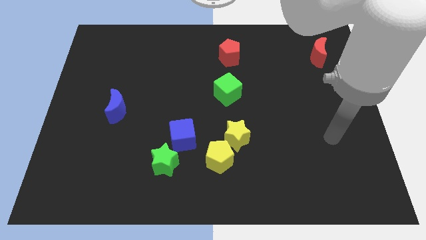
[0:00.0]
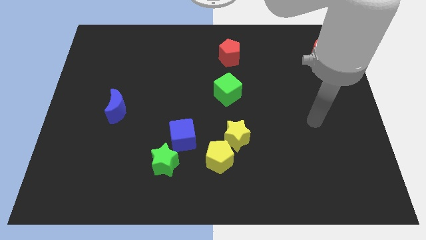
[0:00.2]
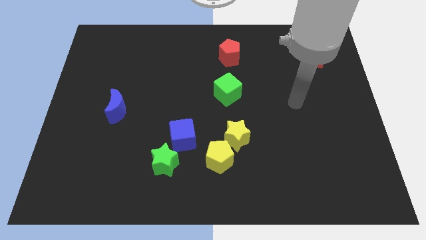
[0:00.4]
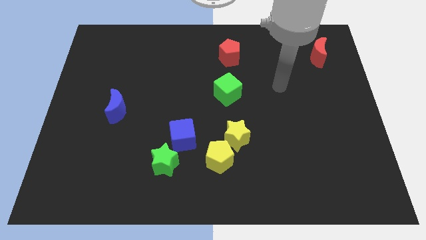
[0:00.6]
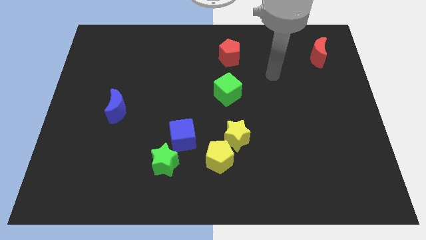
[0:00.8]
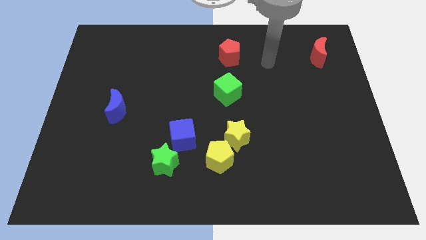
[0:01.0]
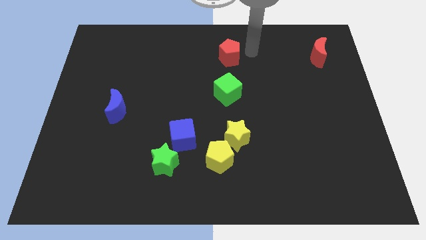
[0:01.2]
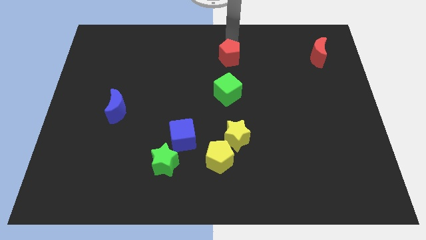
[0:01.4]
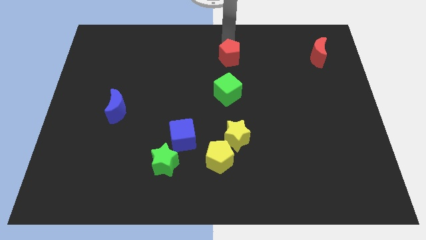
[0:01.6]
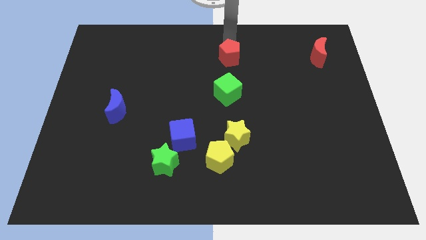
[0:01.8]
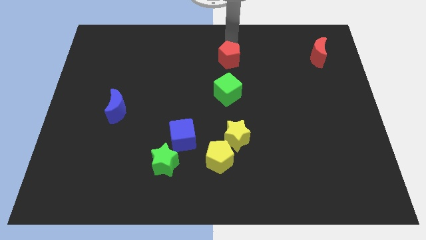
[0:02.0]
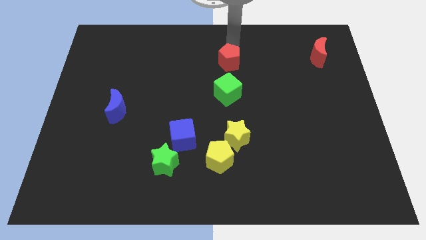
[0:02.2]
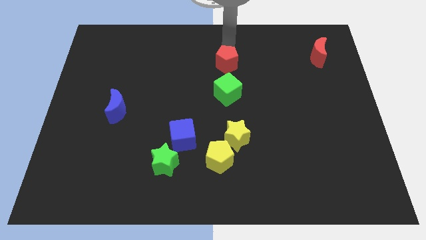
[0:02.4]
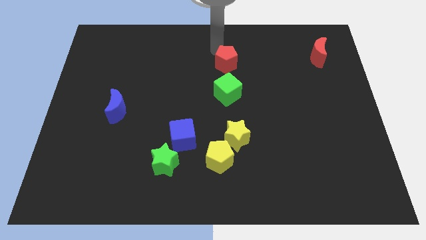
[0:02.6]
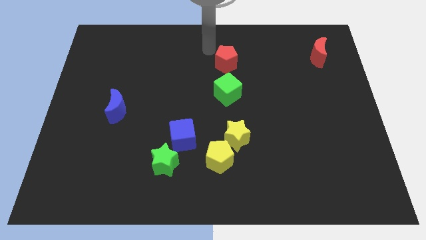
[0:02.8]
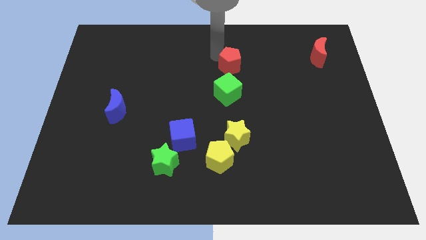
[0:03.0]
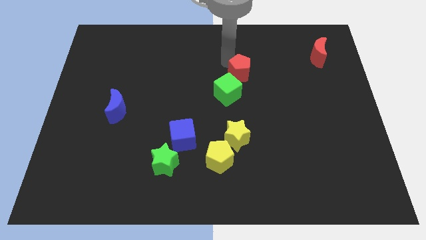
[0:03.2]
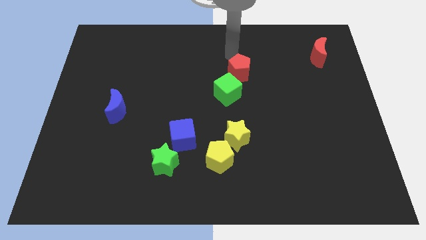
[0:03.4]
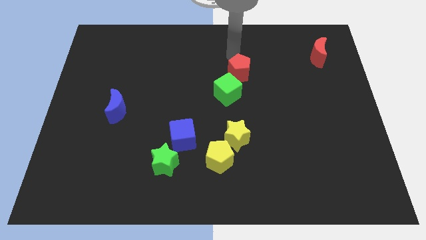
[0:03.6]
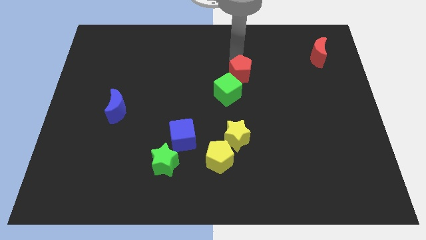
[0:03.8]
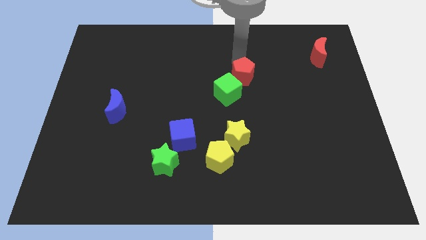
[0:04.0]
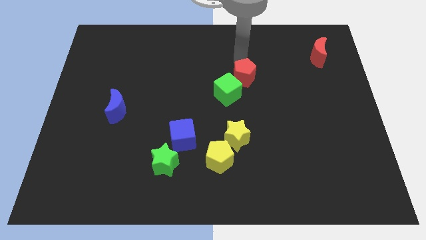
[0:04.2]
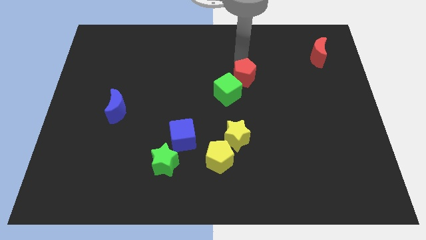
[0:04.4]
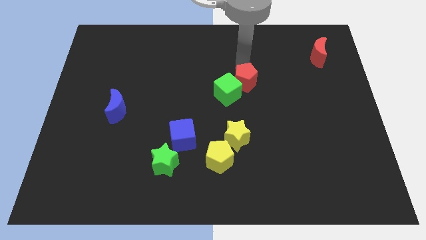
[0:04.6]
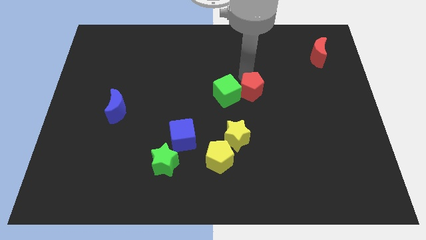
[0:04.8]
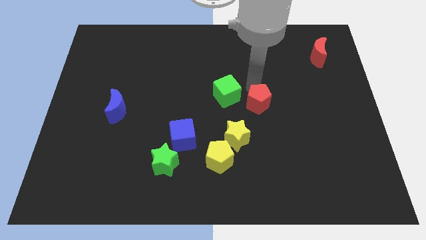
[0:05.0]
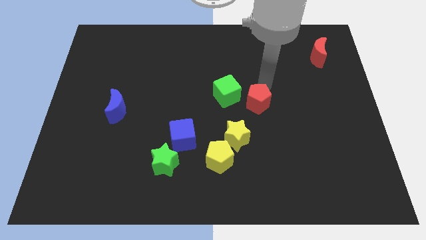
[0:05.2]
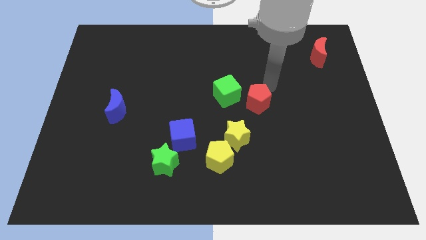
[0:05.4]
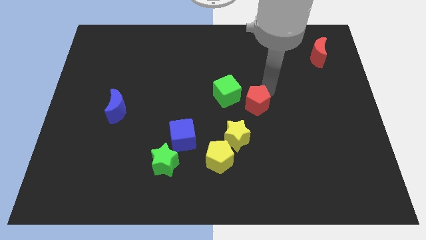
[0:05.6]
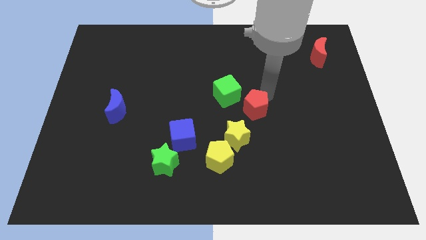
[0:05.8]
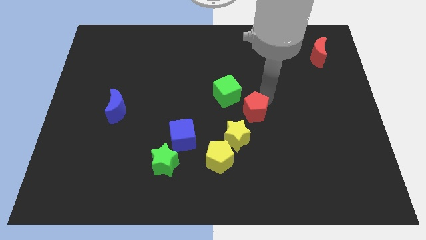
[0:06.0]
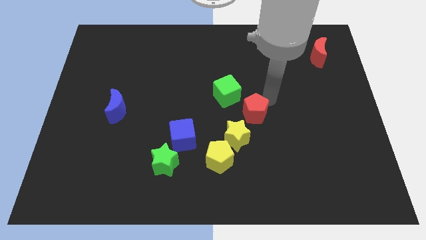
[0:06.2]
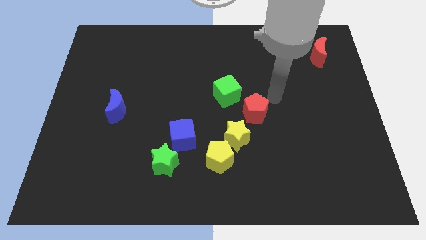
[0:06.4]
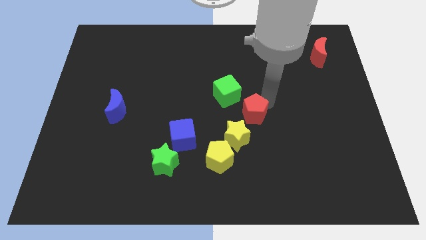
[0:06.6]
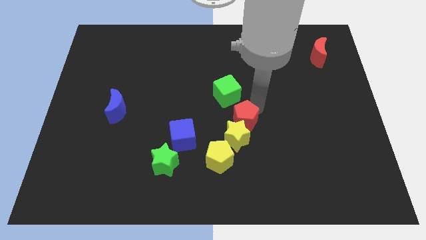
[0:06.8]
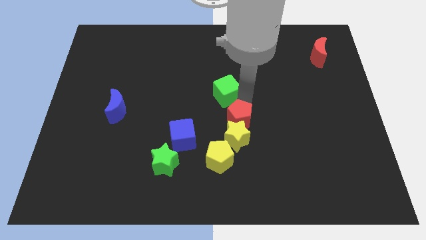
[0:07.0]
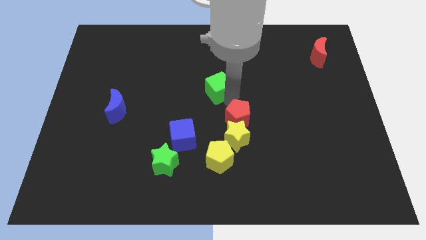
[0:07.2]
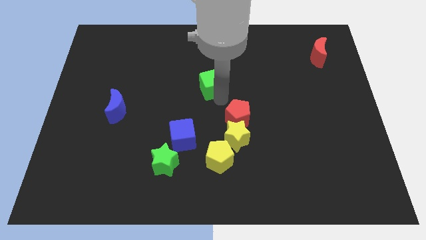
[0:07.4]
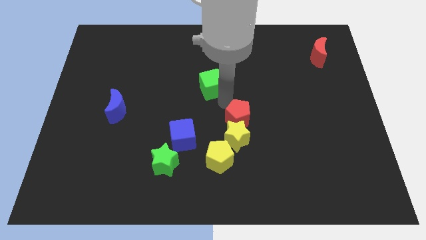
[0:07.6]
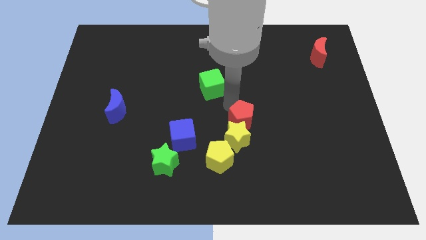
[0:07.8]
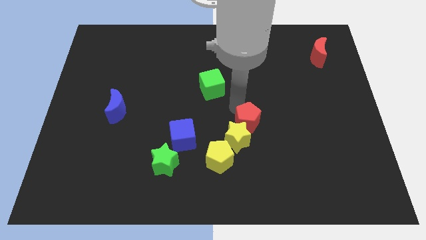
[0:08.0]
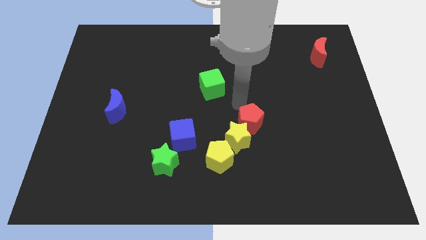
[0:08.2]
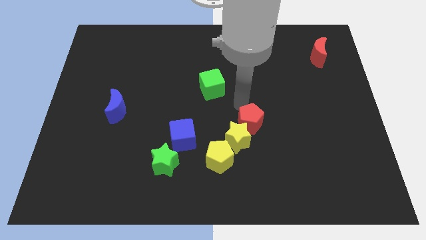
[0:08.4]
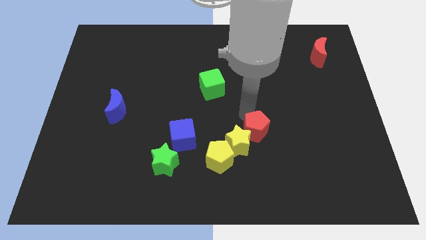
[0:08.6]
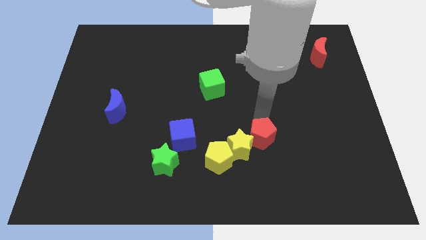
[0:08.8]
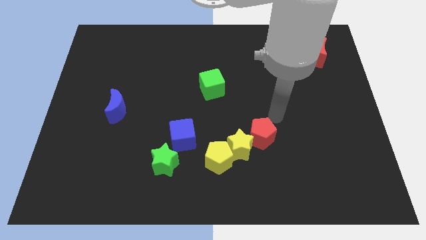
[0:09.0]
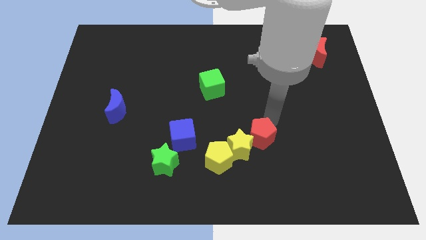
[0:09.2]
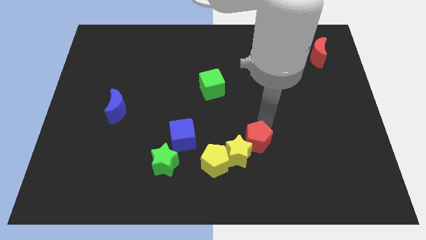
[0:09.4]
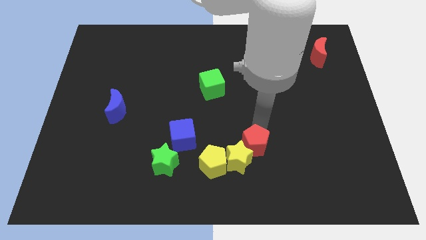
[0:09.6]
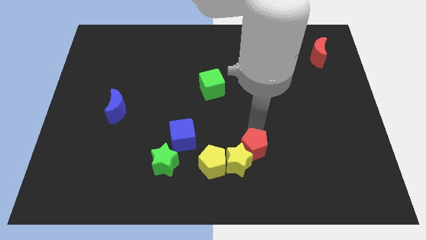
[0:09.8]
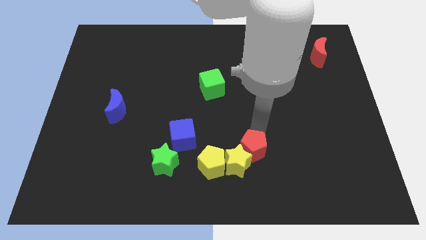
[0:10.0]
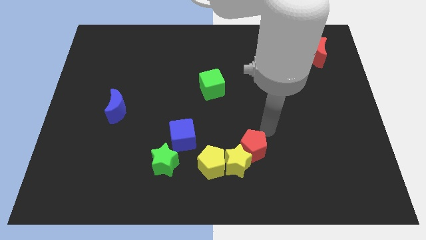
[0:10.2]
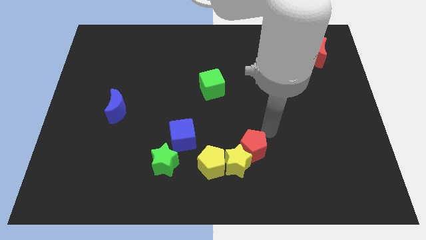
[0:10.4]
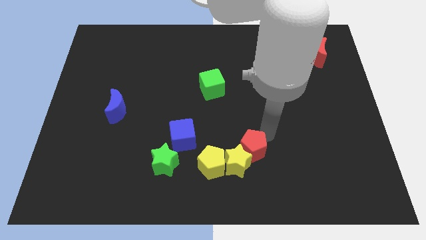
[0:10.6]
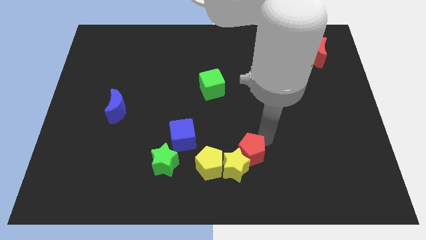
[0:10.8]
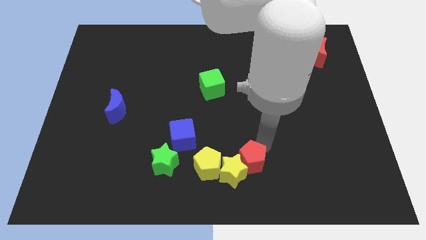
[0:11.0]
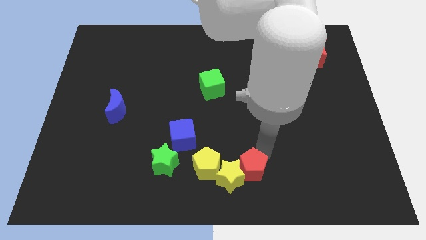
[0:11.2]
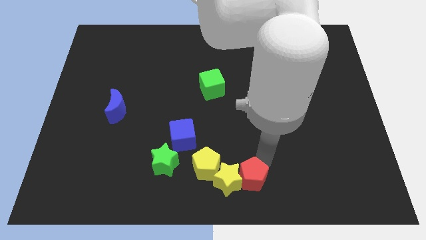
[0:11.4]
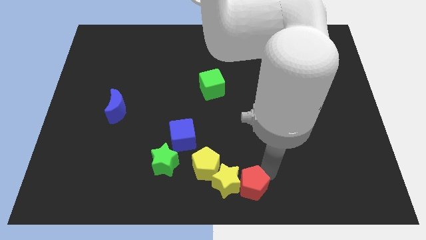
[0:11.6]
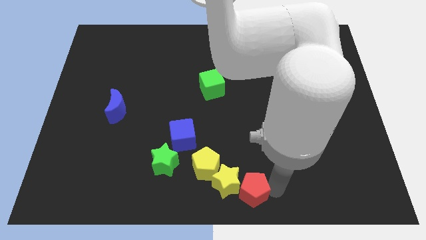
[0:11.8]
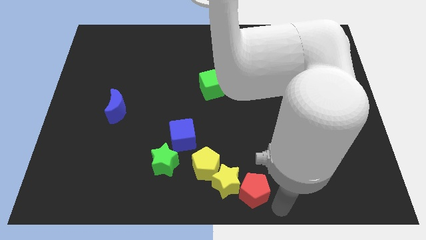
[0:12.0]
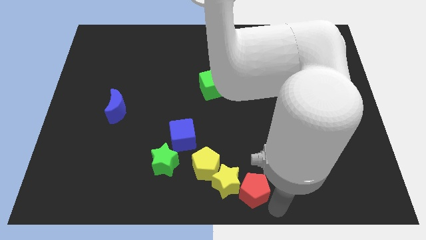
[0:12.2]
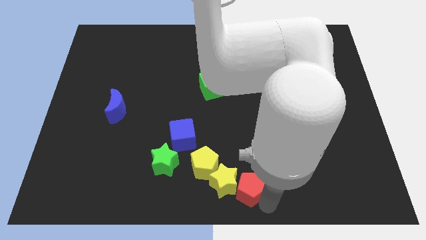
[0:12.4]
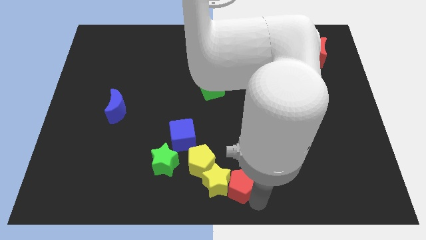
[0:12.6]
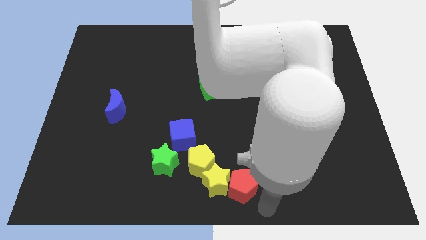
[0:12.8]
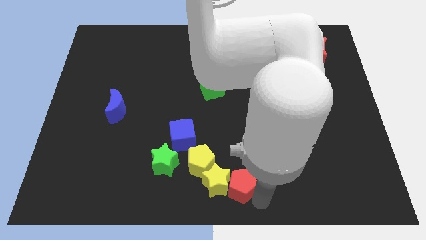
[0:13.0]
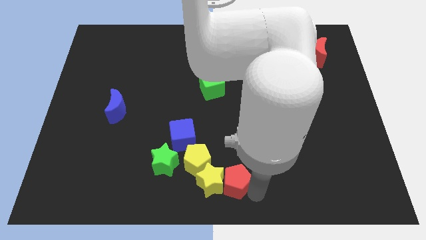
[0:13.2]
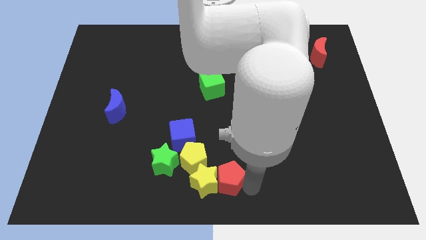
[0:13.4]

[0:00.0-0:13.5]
put the red pentagon to the right of the green star

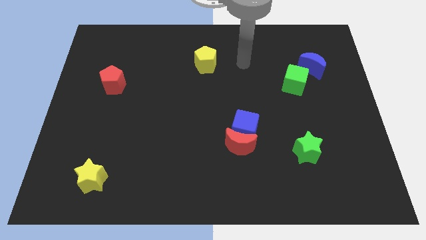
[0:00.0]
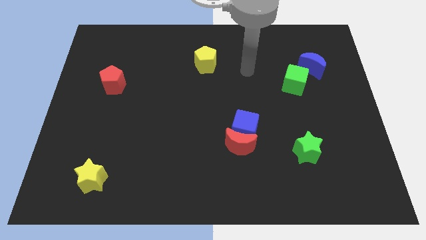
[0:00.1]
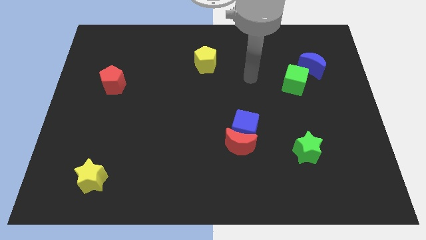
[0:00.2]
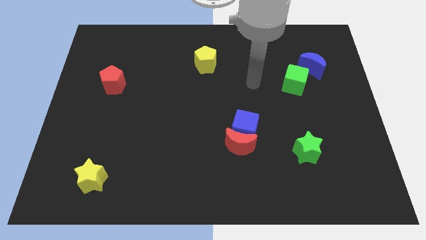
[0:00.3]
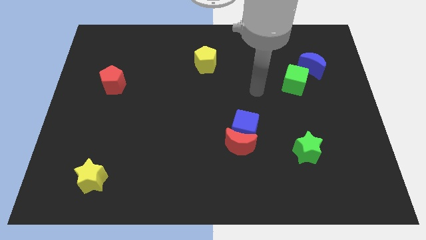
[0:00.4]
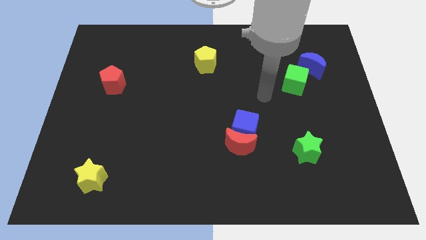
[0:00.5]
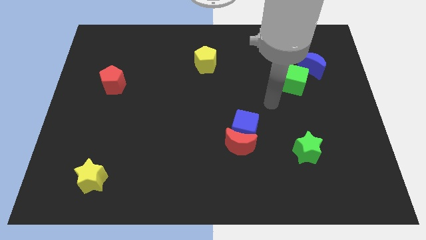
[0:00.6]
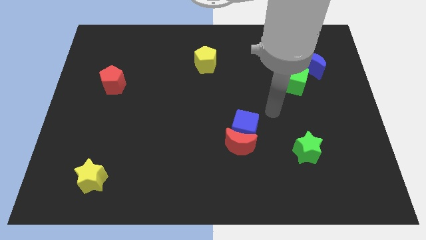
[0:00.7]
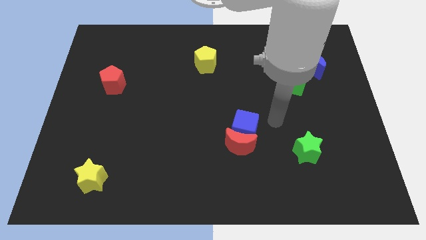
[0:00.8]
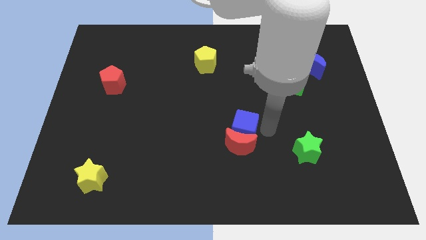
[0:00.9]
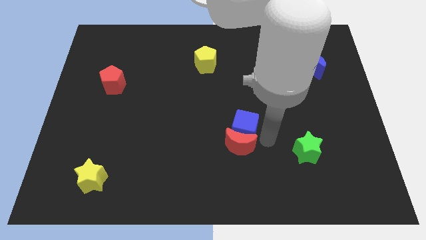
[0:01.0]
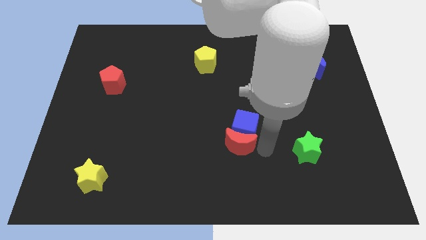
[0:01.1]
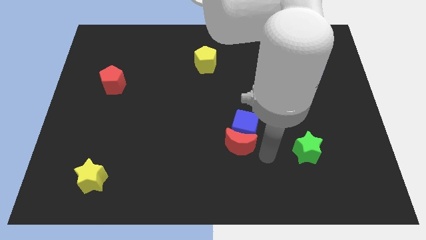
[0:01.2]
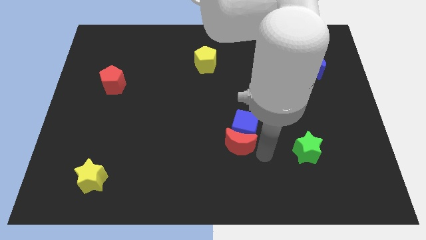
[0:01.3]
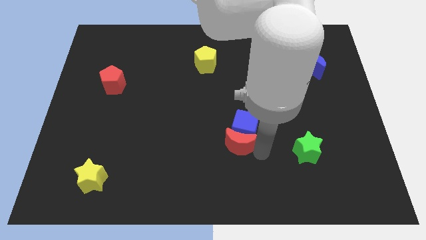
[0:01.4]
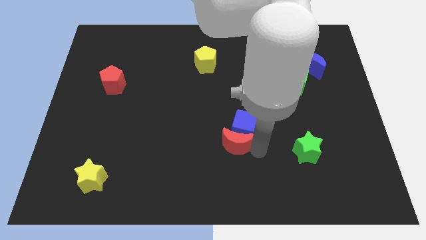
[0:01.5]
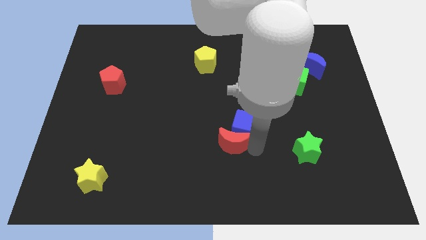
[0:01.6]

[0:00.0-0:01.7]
push the red moon to the left side of the blue cube
